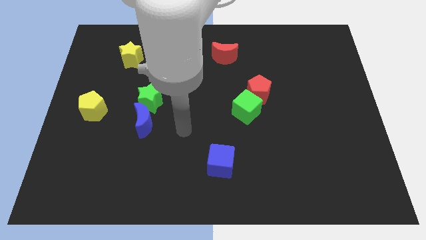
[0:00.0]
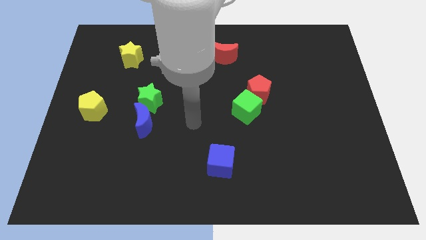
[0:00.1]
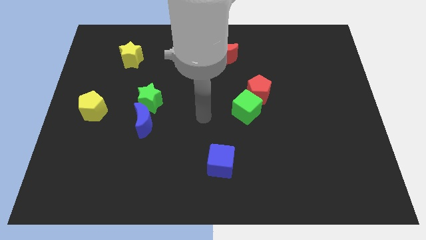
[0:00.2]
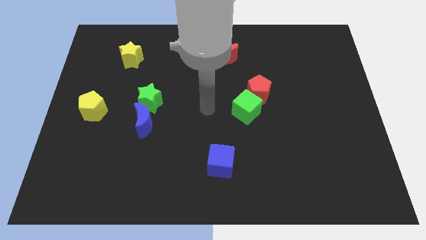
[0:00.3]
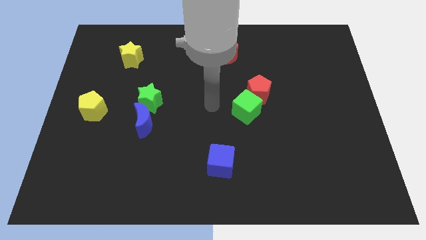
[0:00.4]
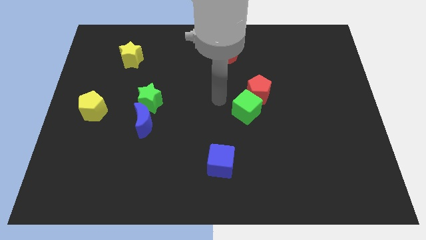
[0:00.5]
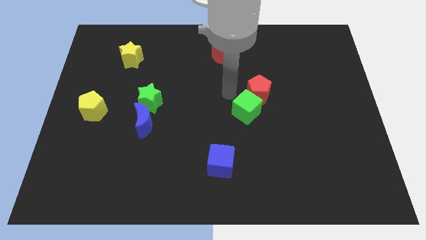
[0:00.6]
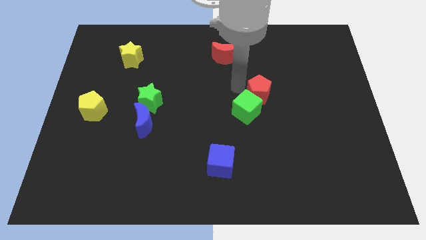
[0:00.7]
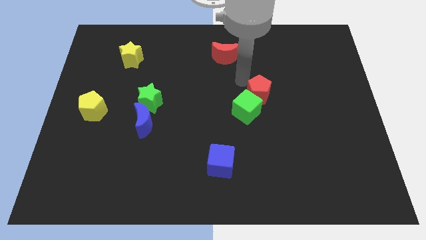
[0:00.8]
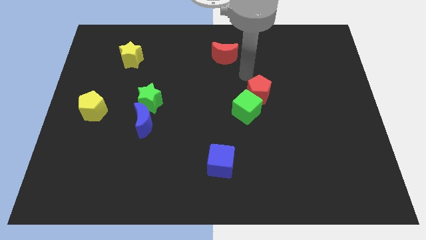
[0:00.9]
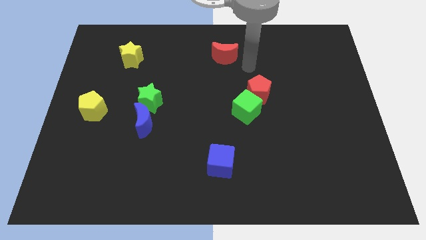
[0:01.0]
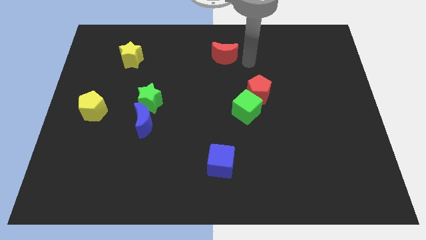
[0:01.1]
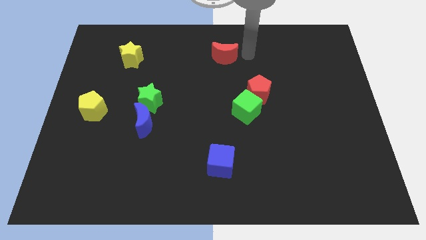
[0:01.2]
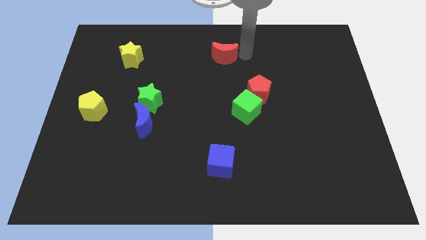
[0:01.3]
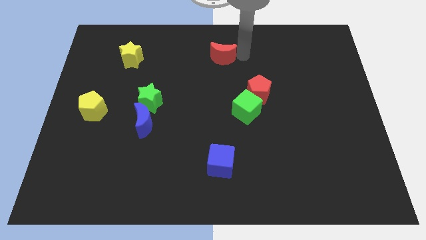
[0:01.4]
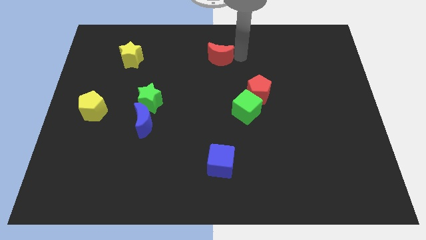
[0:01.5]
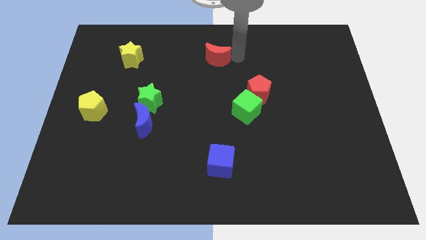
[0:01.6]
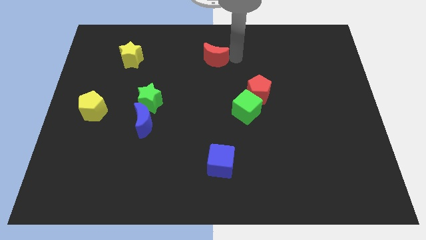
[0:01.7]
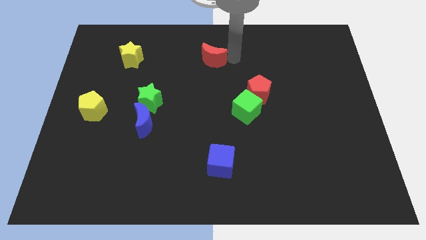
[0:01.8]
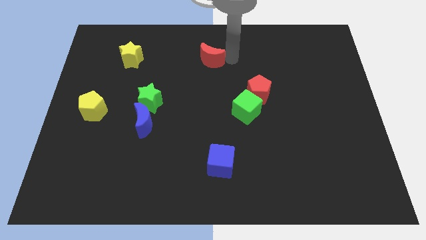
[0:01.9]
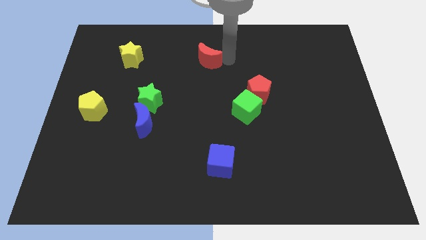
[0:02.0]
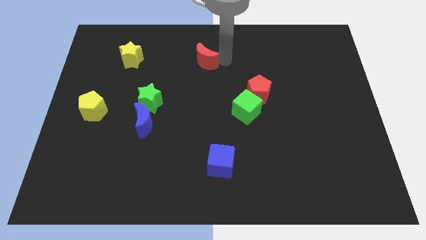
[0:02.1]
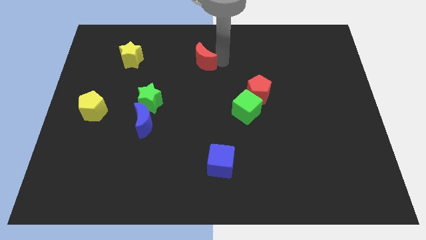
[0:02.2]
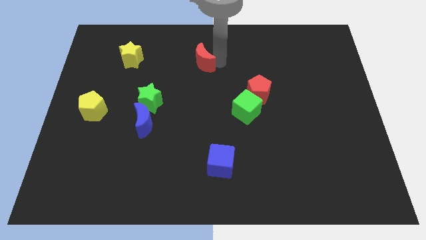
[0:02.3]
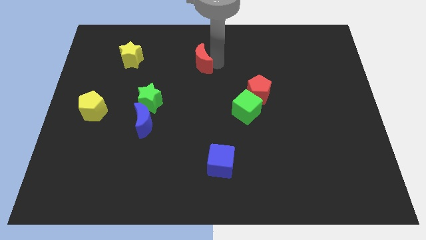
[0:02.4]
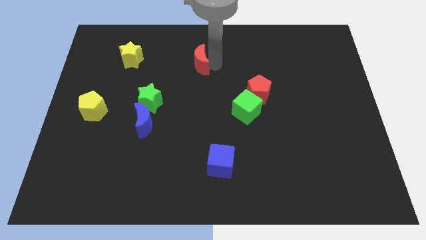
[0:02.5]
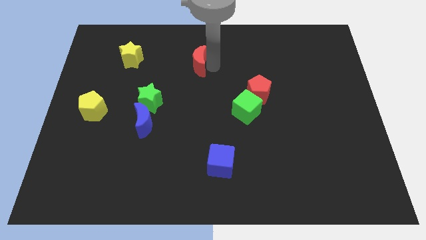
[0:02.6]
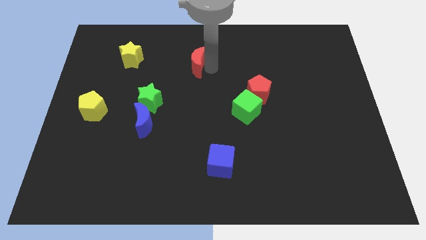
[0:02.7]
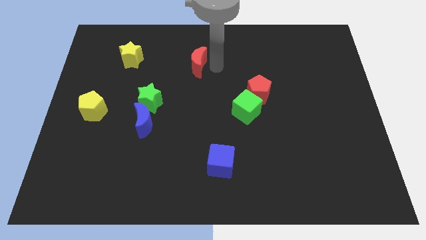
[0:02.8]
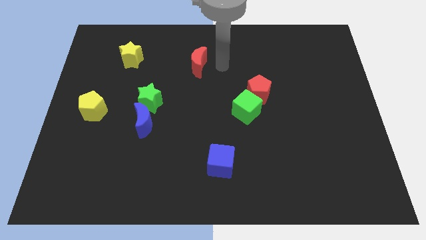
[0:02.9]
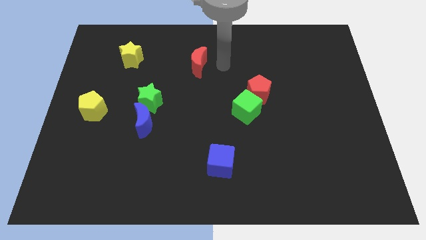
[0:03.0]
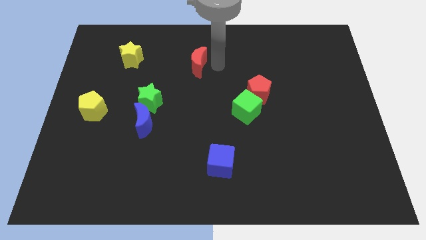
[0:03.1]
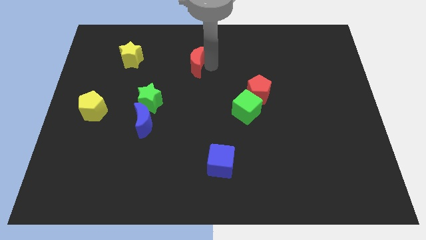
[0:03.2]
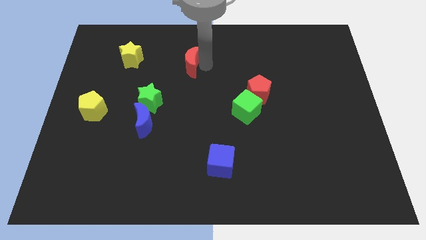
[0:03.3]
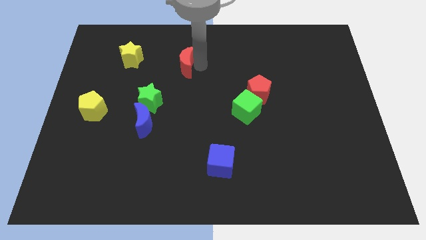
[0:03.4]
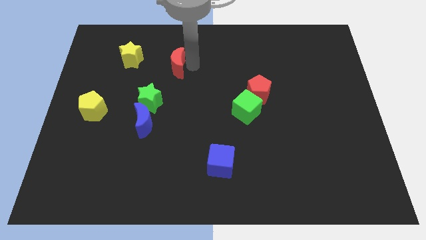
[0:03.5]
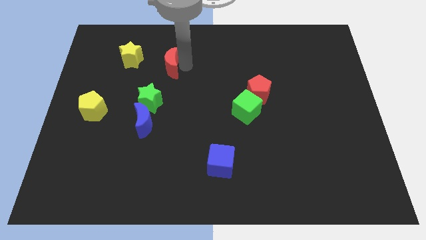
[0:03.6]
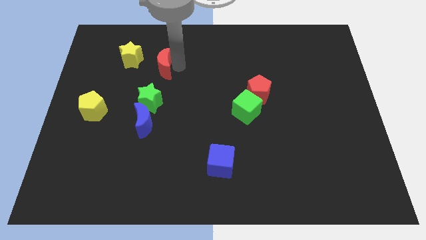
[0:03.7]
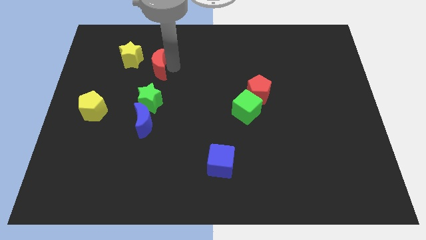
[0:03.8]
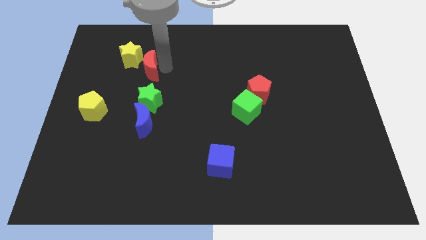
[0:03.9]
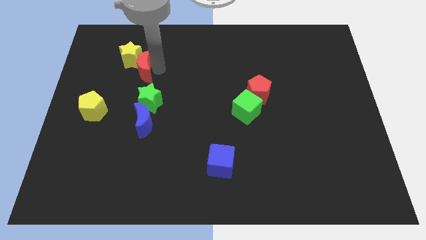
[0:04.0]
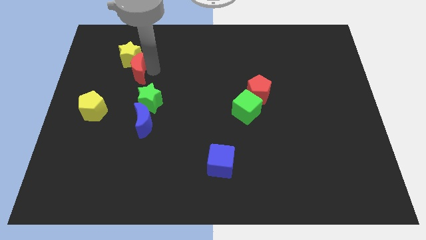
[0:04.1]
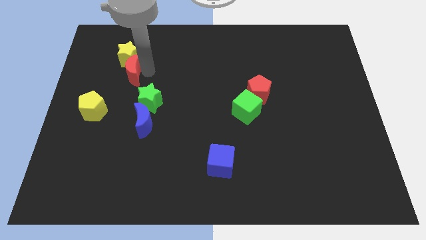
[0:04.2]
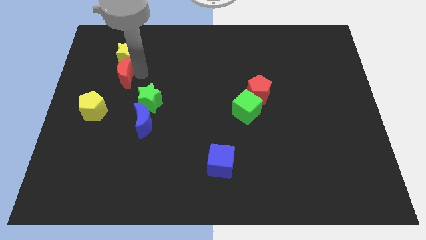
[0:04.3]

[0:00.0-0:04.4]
put the red moon diagonally down and to the left of the yellow star

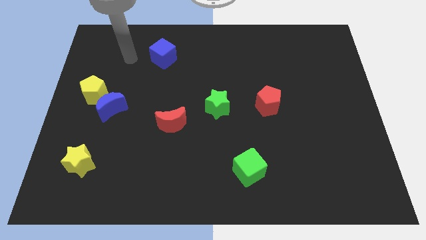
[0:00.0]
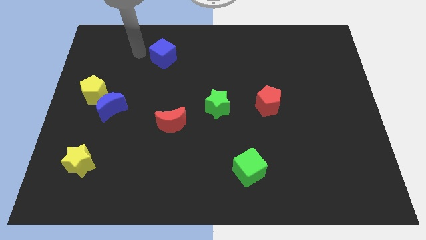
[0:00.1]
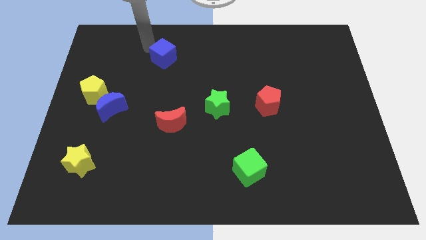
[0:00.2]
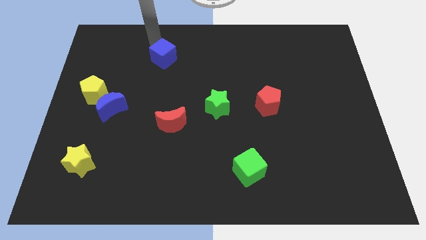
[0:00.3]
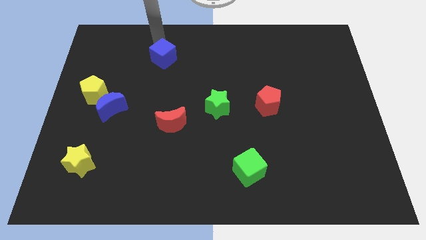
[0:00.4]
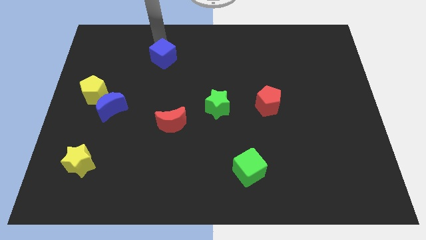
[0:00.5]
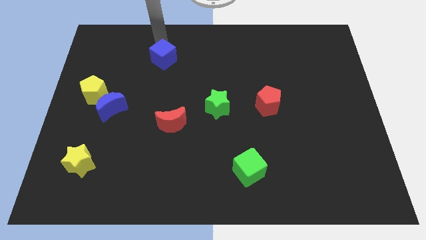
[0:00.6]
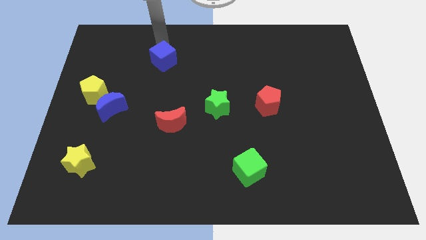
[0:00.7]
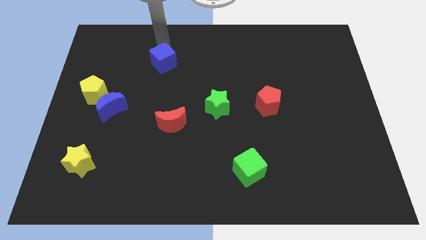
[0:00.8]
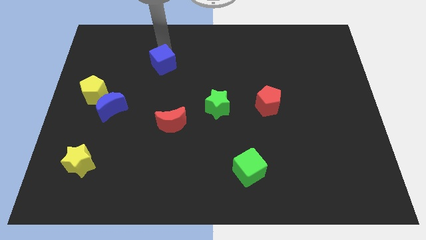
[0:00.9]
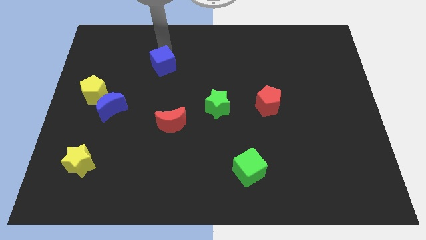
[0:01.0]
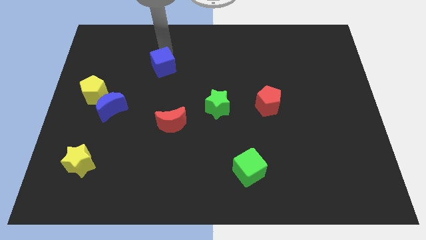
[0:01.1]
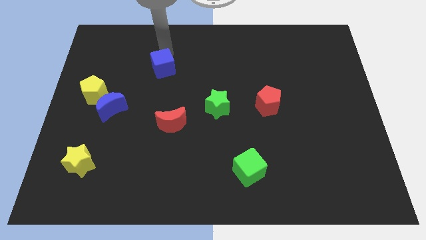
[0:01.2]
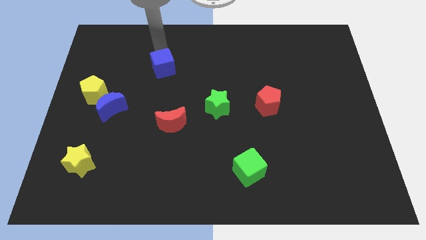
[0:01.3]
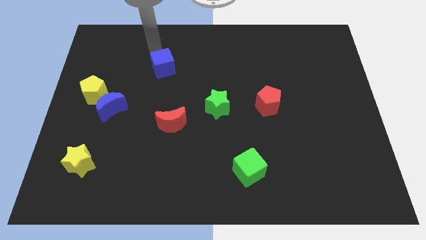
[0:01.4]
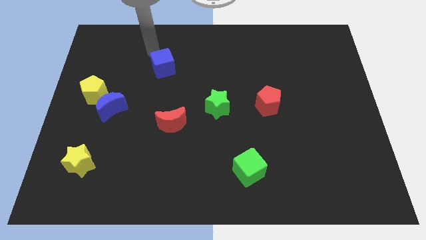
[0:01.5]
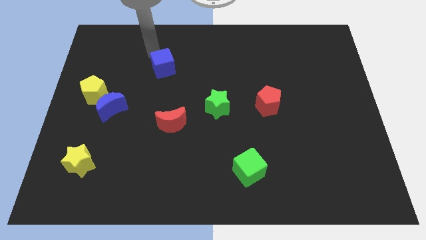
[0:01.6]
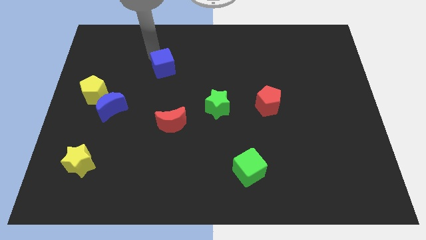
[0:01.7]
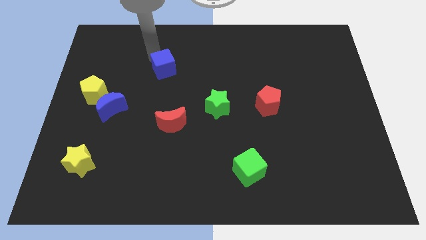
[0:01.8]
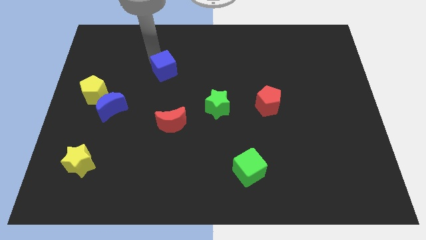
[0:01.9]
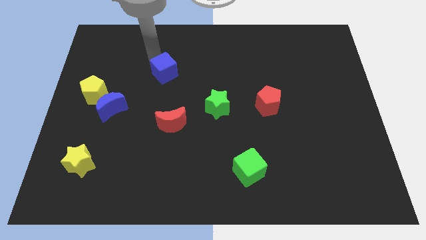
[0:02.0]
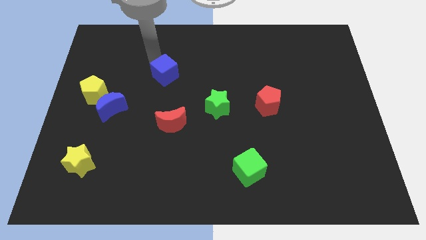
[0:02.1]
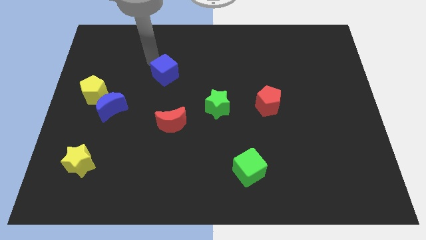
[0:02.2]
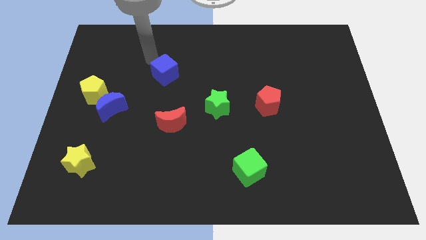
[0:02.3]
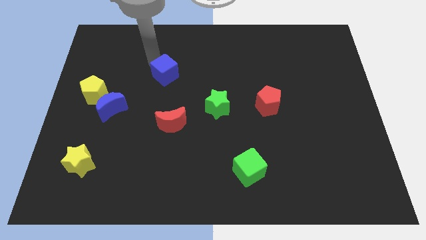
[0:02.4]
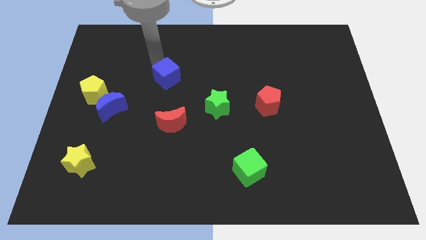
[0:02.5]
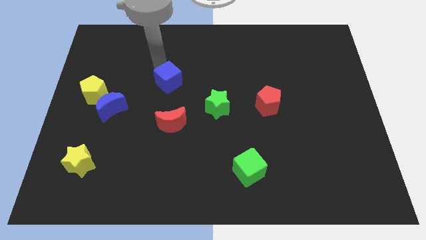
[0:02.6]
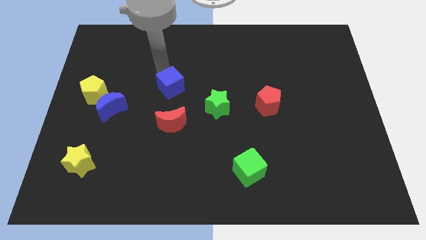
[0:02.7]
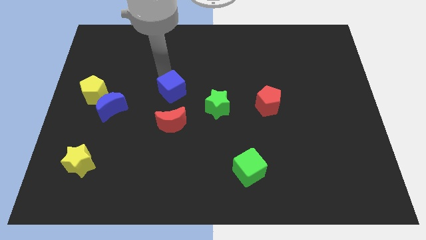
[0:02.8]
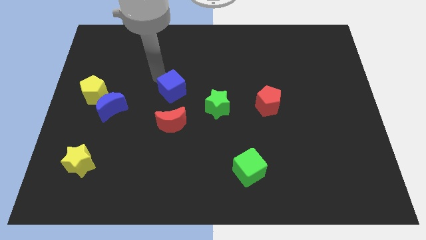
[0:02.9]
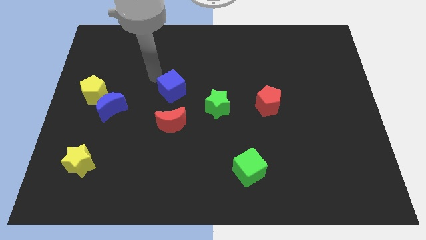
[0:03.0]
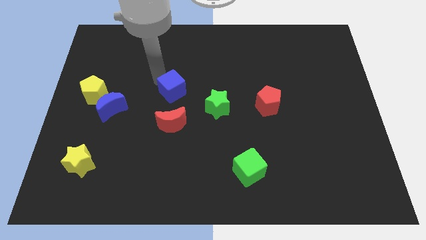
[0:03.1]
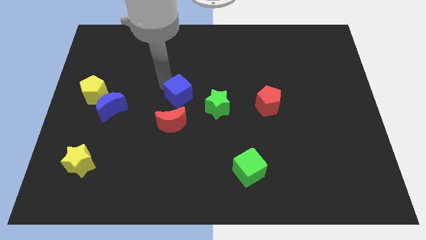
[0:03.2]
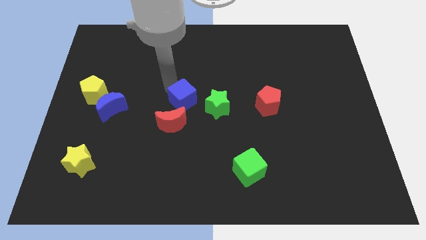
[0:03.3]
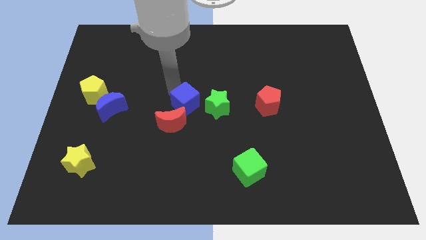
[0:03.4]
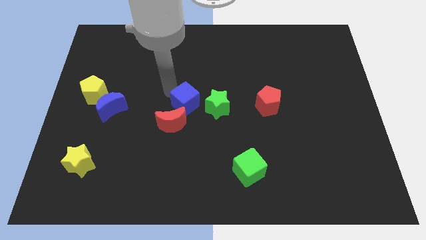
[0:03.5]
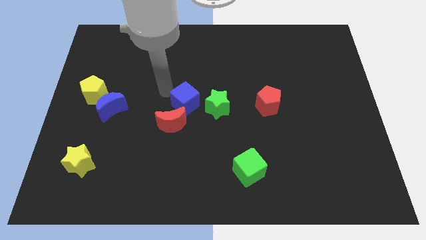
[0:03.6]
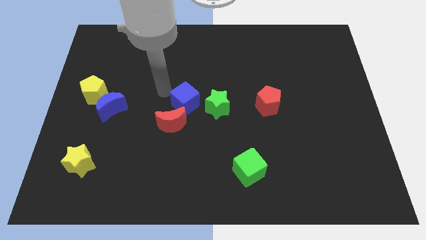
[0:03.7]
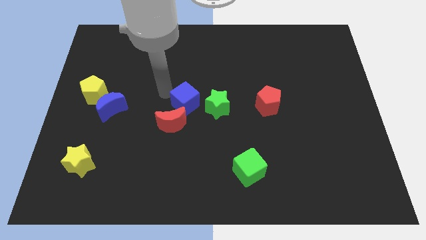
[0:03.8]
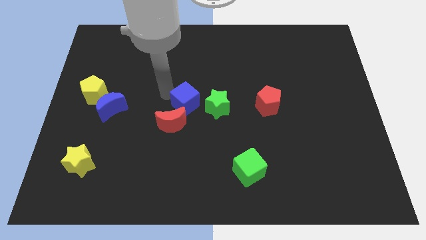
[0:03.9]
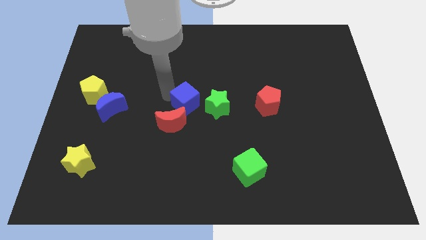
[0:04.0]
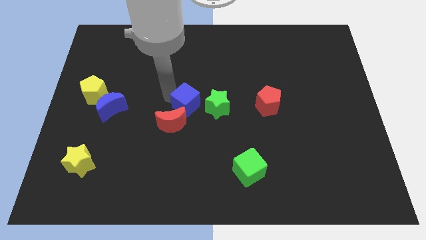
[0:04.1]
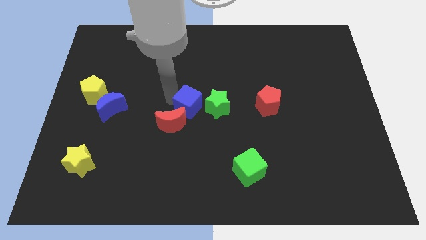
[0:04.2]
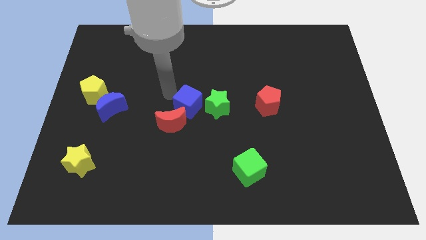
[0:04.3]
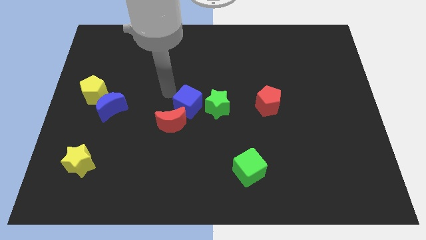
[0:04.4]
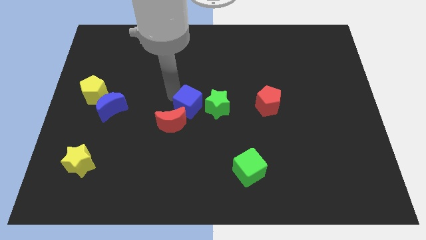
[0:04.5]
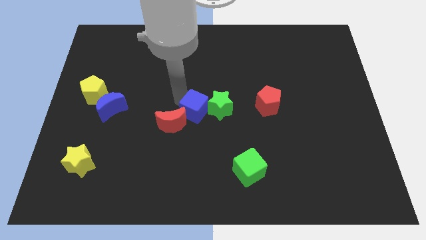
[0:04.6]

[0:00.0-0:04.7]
push the blue cube to the right of the red moon
